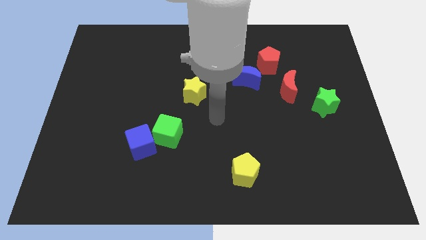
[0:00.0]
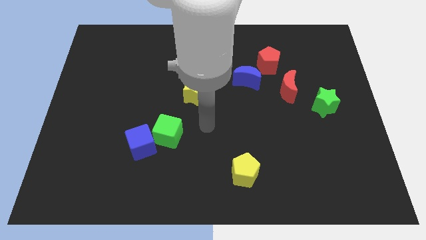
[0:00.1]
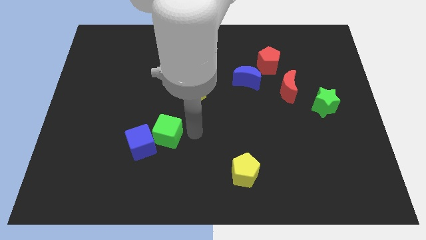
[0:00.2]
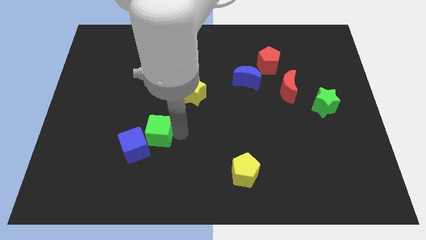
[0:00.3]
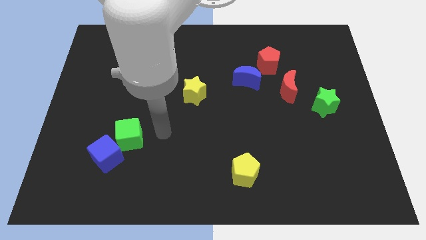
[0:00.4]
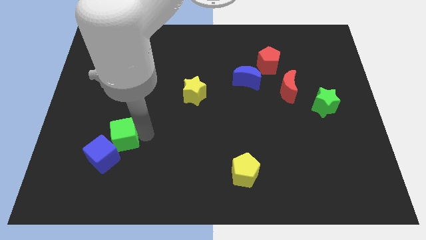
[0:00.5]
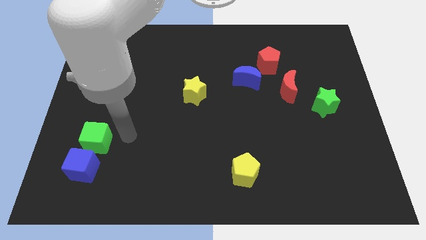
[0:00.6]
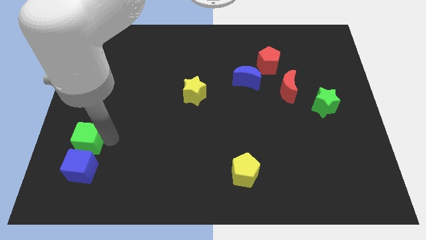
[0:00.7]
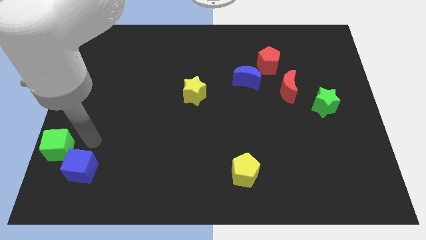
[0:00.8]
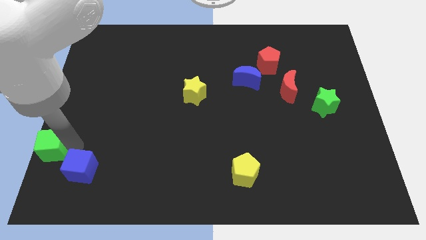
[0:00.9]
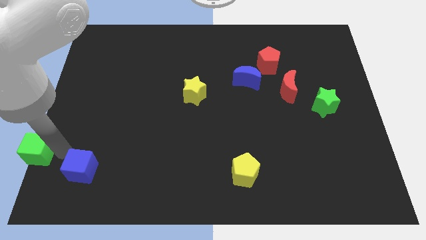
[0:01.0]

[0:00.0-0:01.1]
move the blue cube away from the green cube

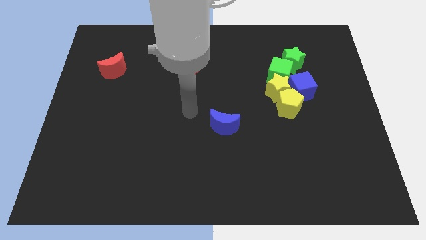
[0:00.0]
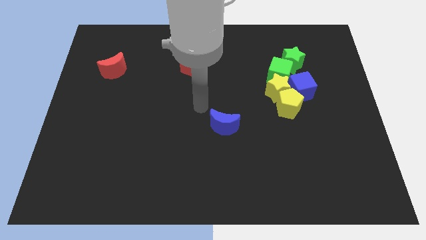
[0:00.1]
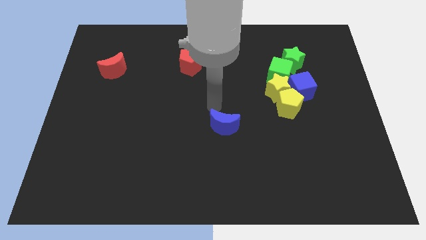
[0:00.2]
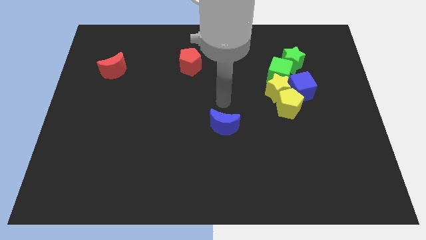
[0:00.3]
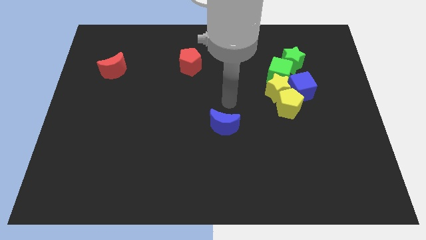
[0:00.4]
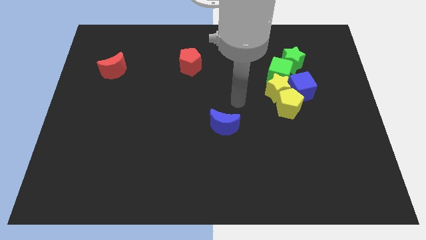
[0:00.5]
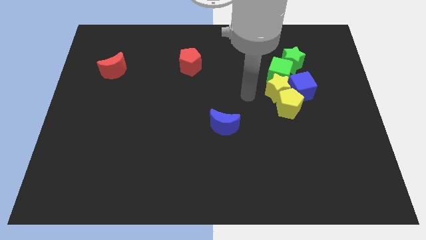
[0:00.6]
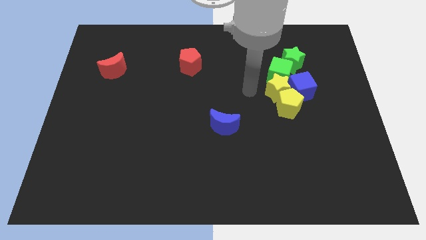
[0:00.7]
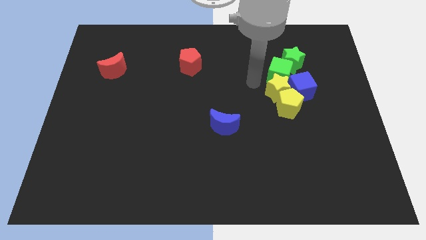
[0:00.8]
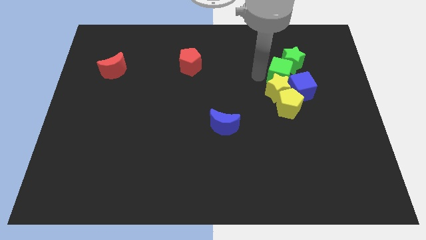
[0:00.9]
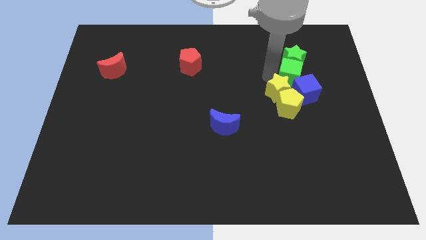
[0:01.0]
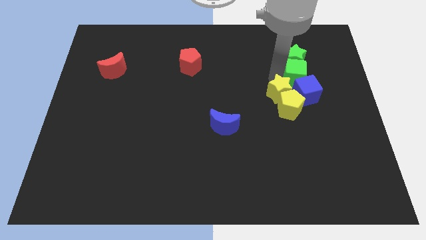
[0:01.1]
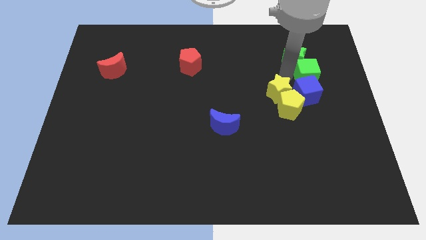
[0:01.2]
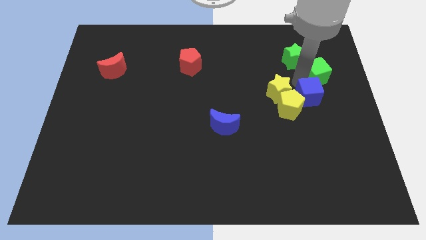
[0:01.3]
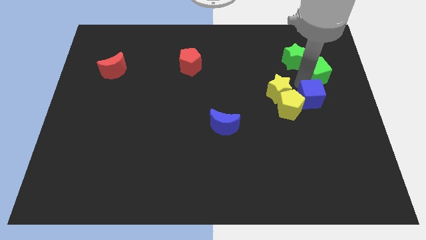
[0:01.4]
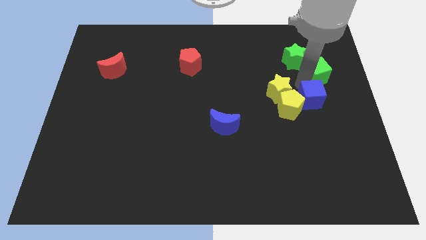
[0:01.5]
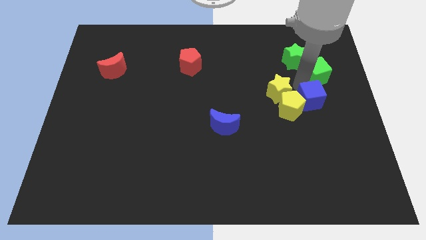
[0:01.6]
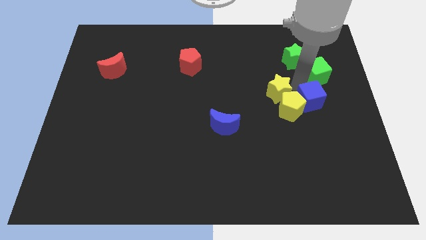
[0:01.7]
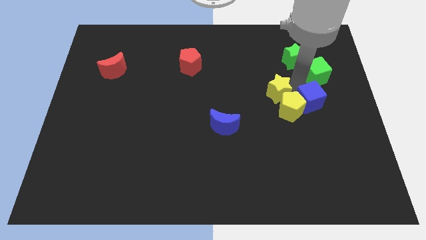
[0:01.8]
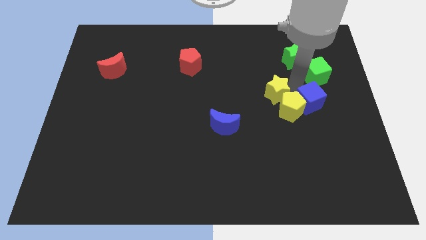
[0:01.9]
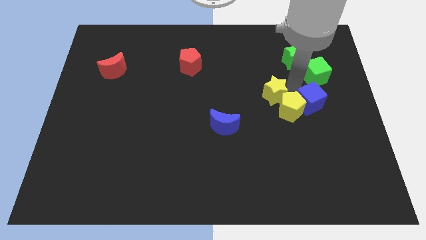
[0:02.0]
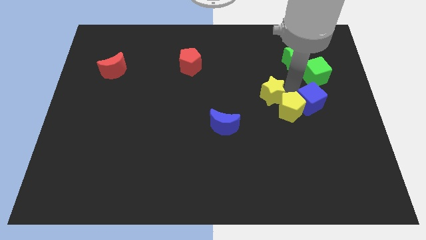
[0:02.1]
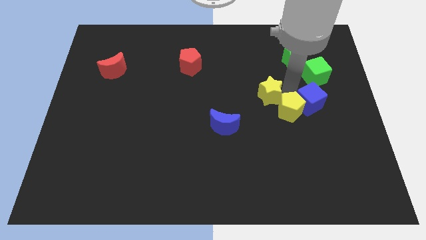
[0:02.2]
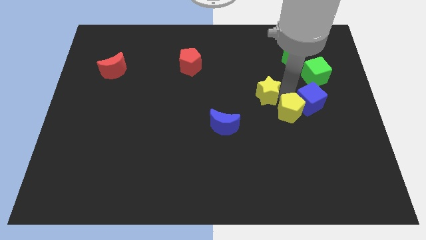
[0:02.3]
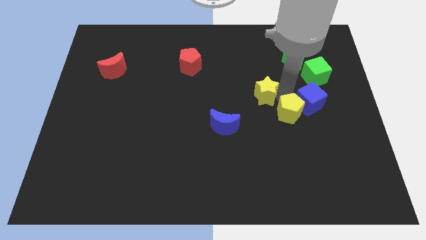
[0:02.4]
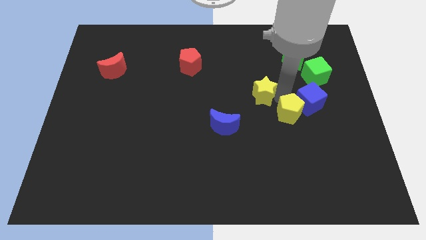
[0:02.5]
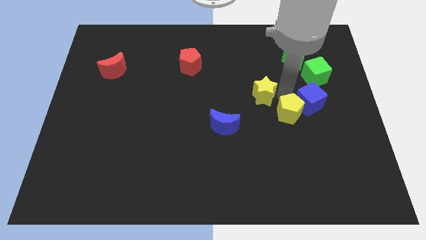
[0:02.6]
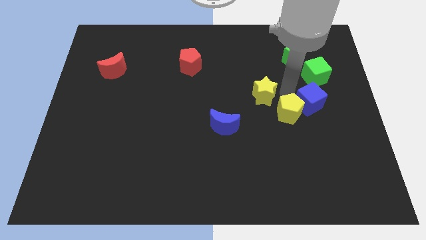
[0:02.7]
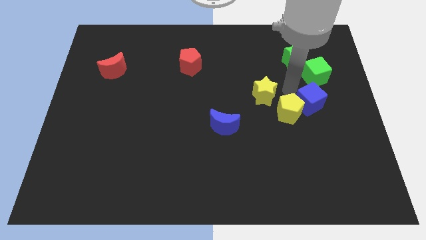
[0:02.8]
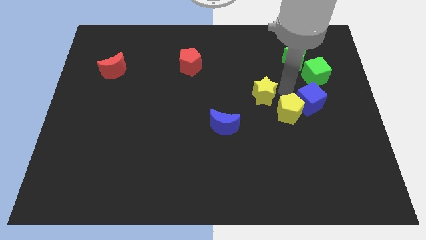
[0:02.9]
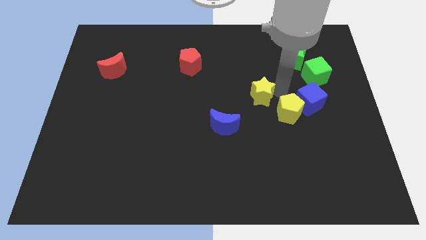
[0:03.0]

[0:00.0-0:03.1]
separate the yellow star from the group

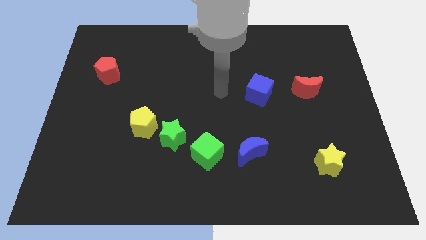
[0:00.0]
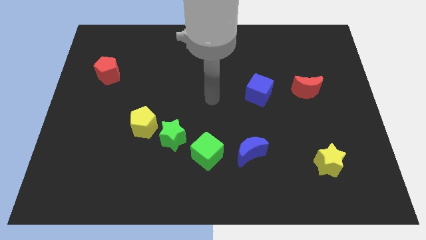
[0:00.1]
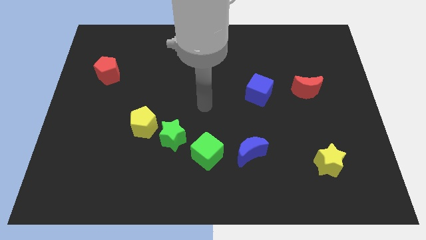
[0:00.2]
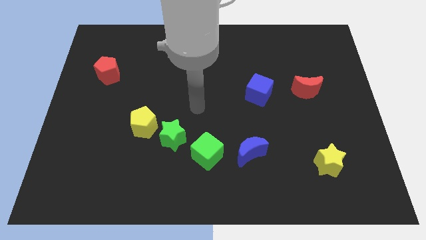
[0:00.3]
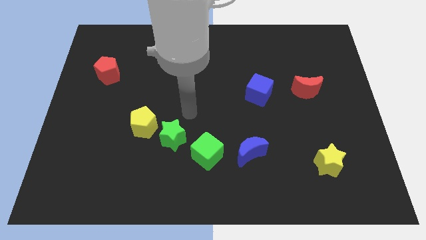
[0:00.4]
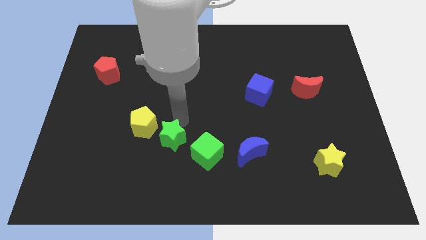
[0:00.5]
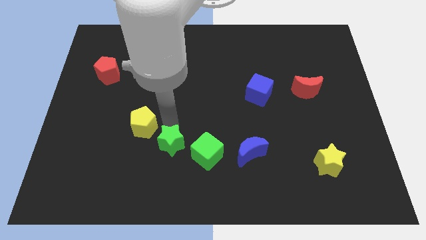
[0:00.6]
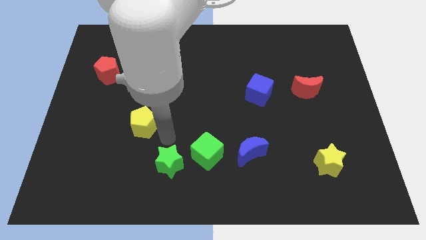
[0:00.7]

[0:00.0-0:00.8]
move the yellow pentagon away from the green star

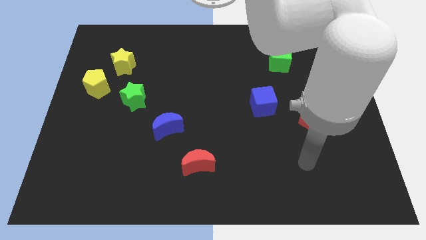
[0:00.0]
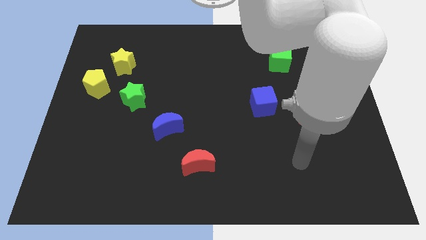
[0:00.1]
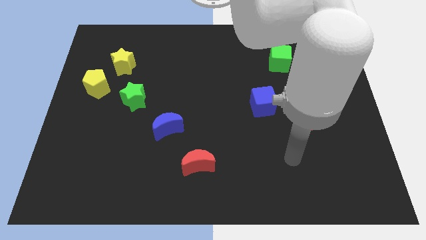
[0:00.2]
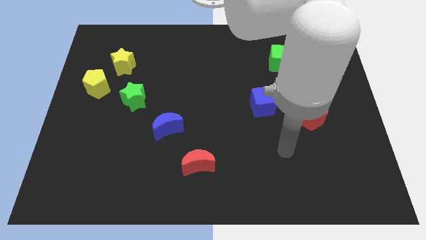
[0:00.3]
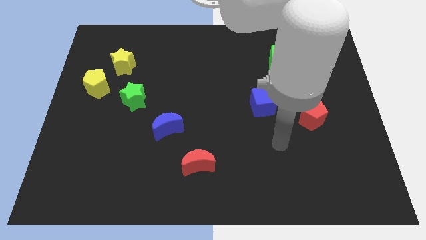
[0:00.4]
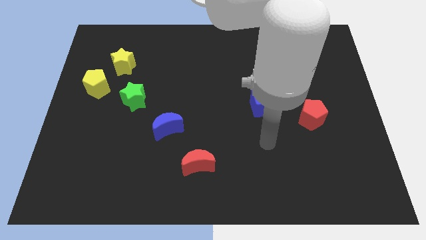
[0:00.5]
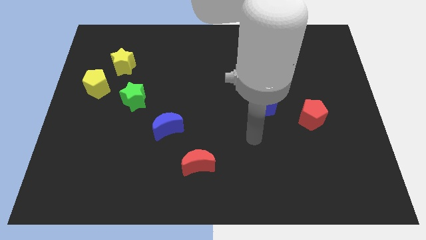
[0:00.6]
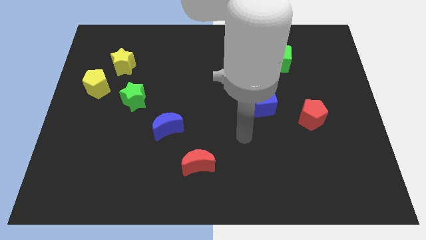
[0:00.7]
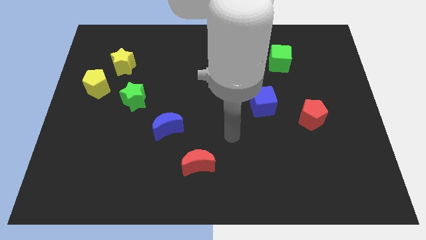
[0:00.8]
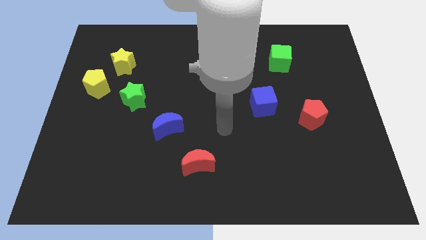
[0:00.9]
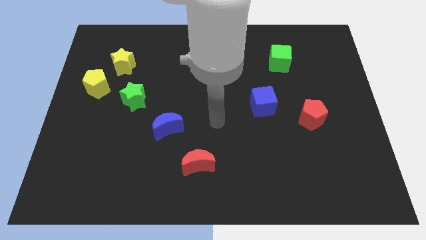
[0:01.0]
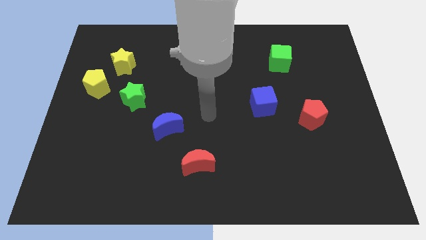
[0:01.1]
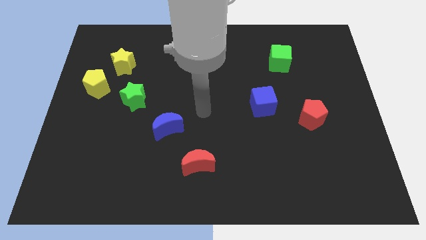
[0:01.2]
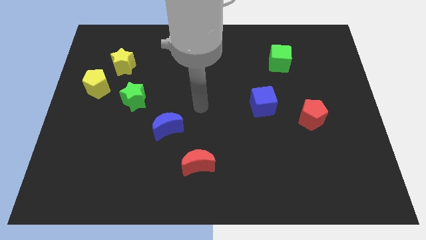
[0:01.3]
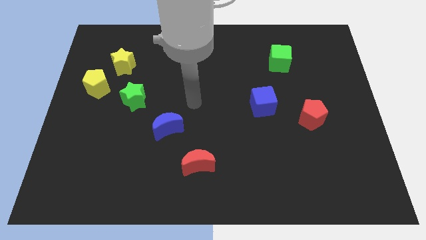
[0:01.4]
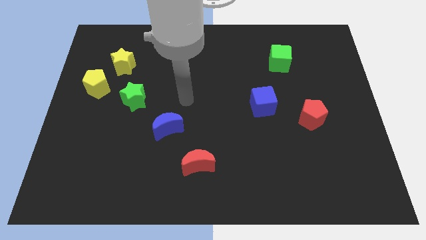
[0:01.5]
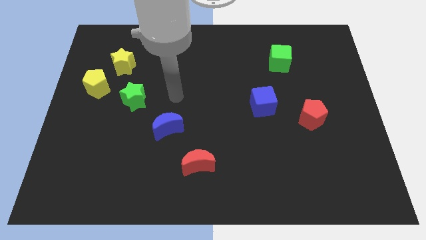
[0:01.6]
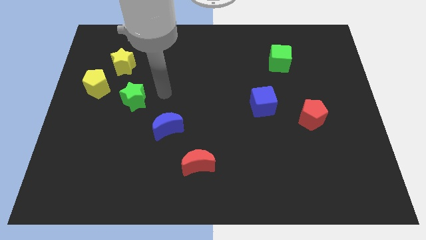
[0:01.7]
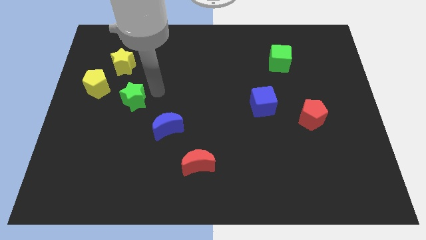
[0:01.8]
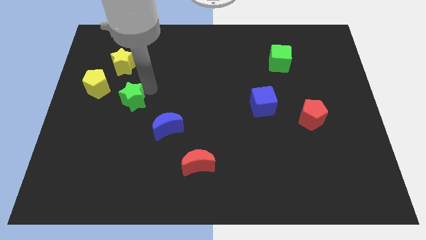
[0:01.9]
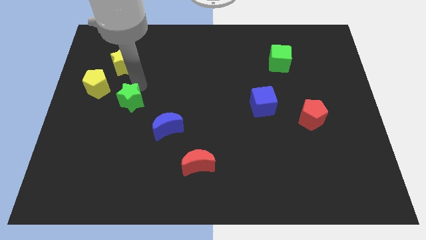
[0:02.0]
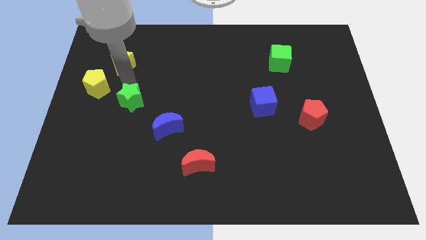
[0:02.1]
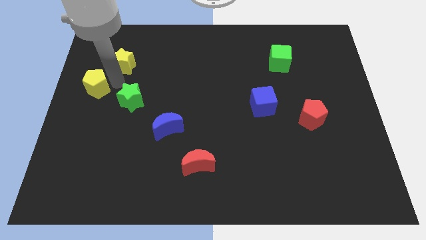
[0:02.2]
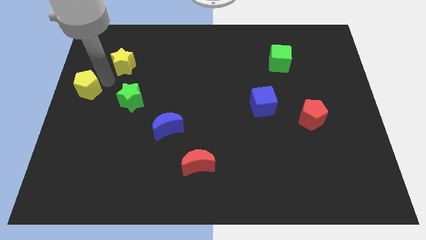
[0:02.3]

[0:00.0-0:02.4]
move the yellow star away from the yellow pentagon

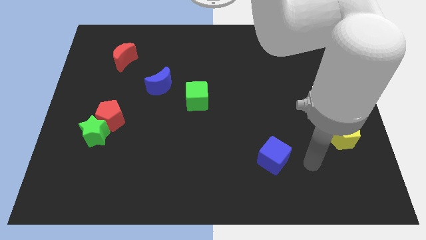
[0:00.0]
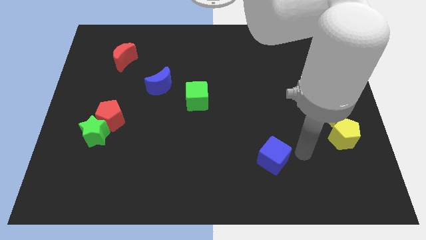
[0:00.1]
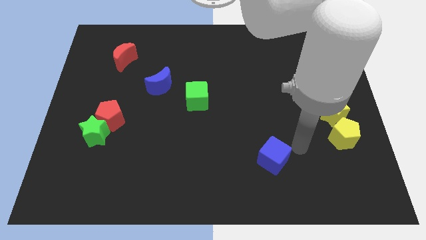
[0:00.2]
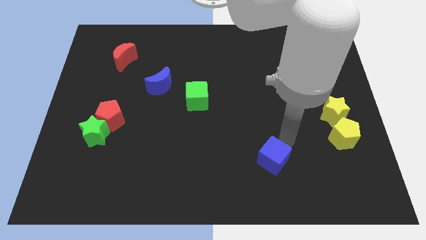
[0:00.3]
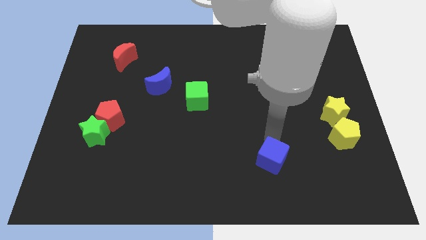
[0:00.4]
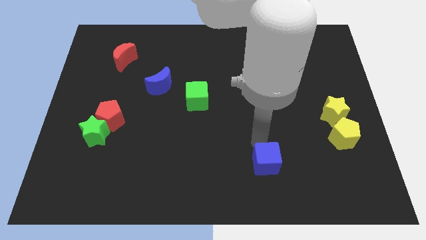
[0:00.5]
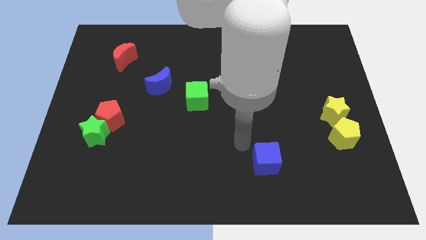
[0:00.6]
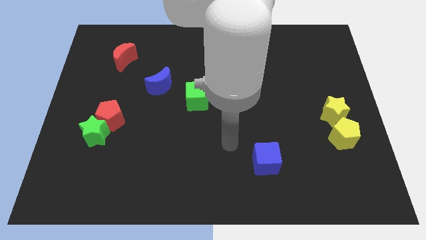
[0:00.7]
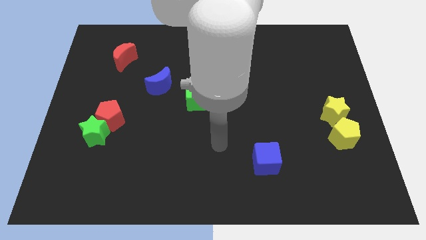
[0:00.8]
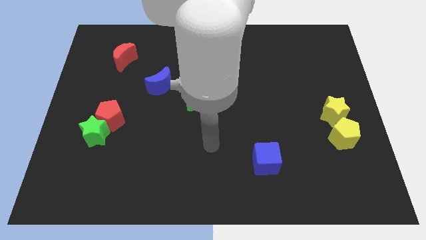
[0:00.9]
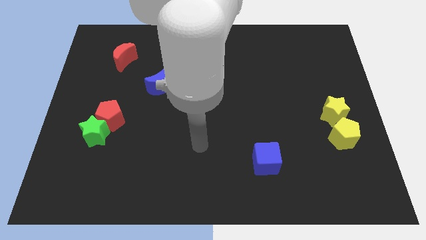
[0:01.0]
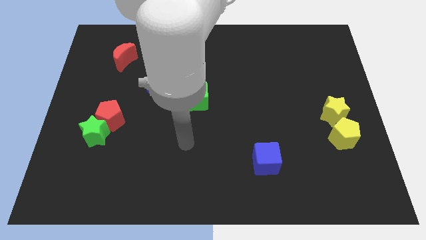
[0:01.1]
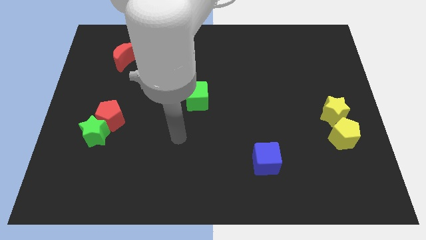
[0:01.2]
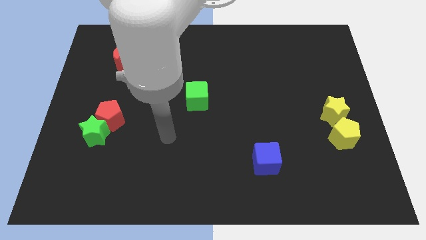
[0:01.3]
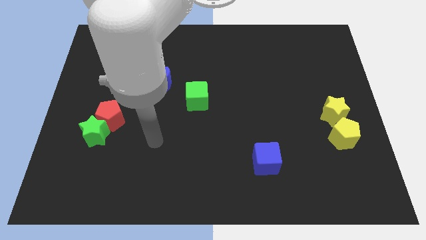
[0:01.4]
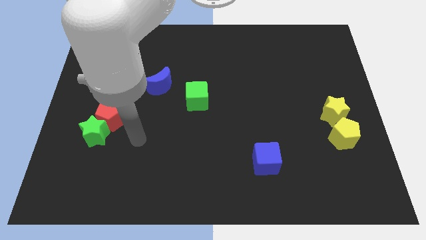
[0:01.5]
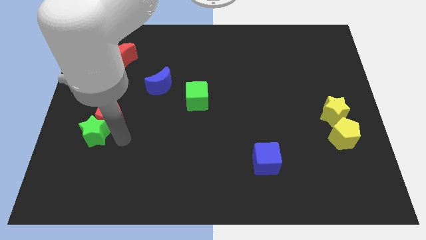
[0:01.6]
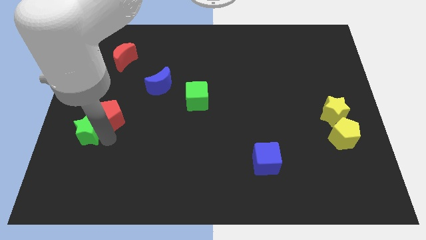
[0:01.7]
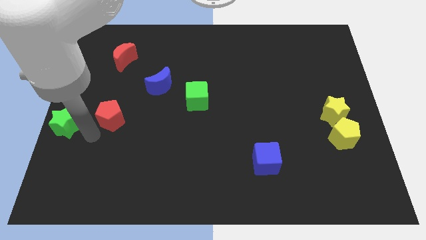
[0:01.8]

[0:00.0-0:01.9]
separate the red pentagon from the green star
